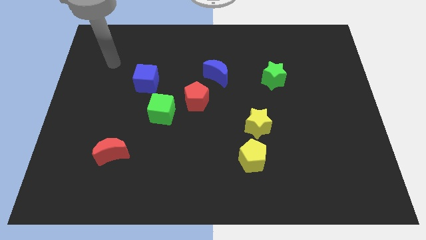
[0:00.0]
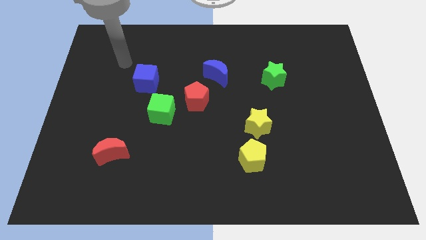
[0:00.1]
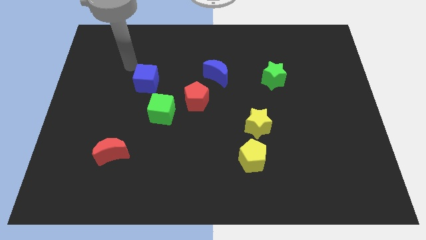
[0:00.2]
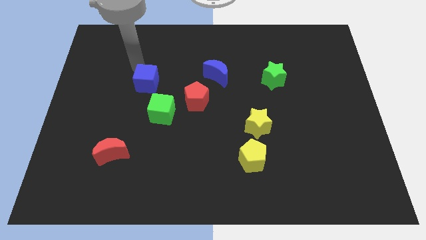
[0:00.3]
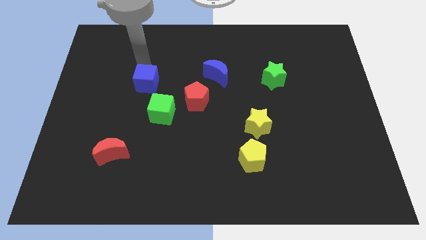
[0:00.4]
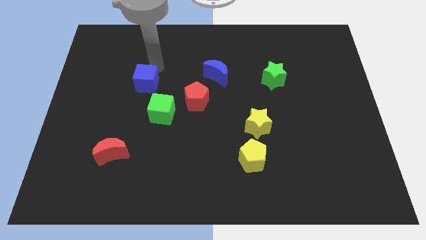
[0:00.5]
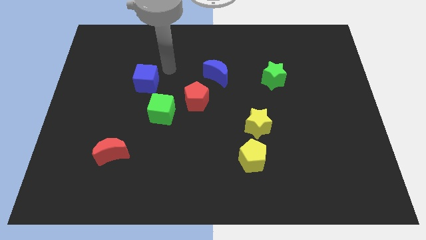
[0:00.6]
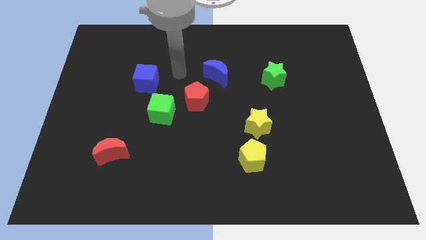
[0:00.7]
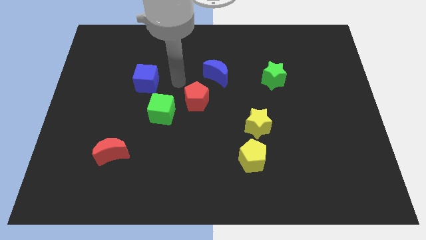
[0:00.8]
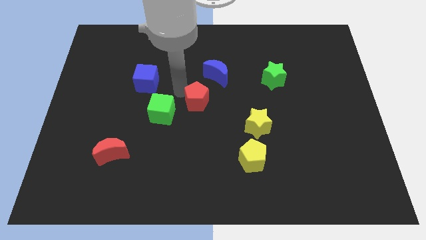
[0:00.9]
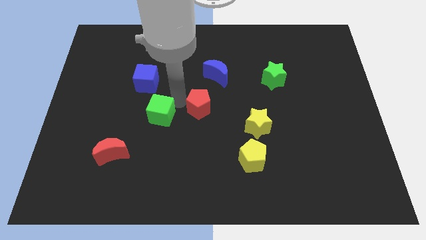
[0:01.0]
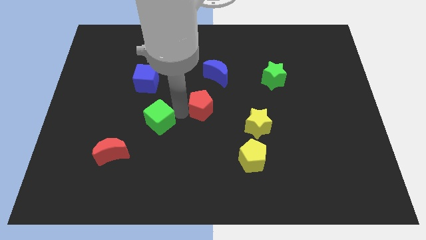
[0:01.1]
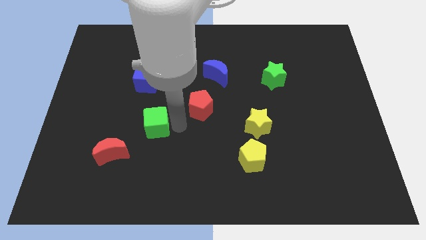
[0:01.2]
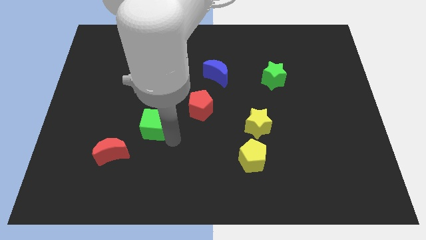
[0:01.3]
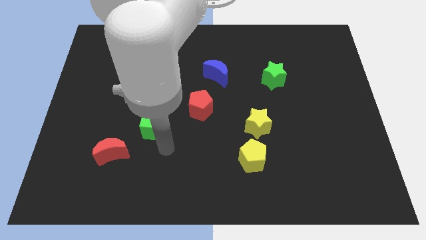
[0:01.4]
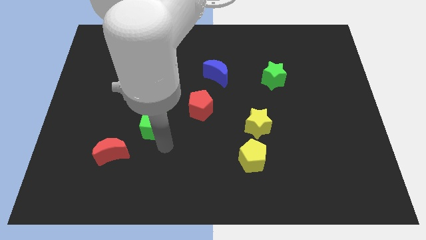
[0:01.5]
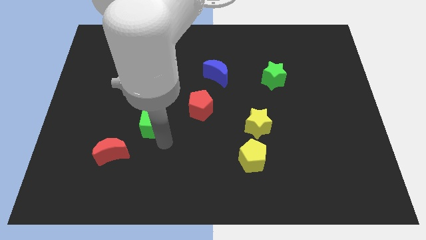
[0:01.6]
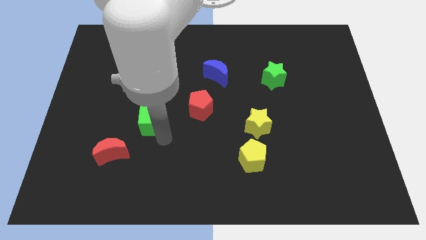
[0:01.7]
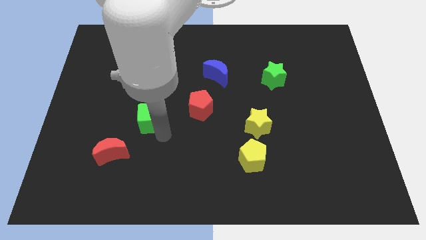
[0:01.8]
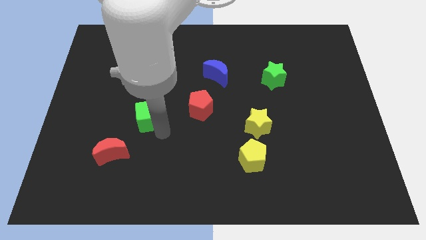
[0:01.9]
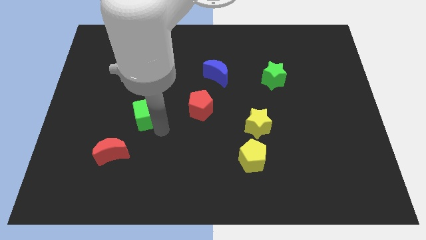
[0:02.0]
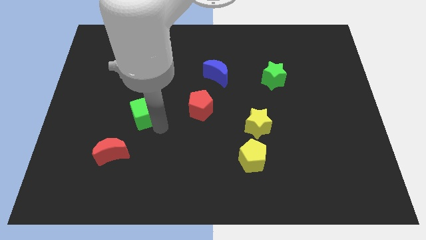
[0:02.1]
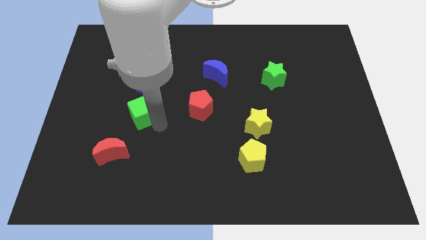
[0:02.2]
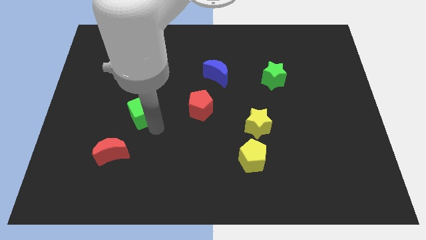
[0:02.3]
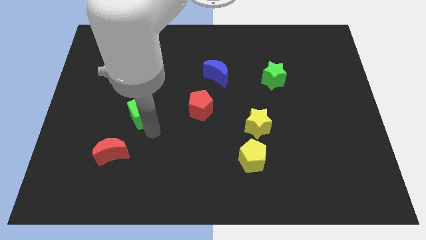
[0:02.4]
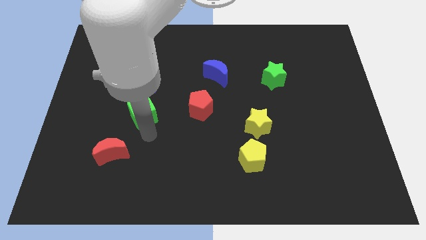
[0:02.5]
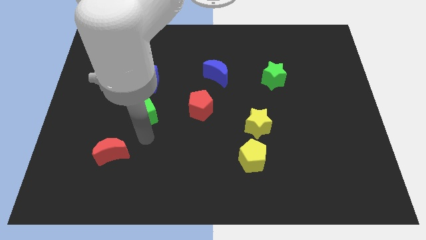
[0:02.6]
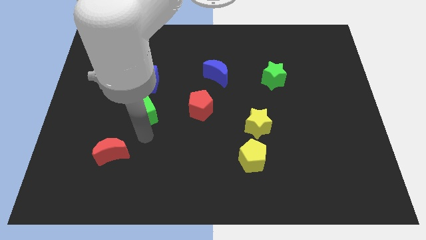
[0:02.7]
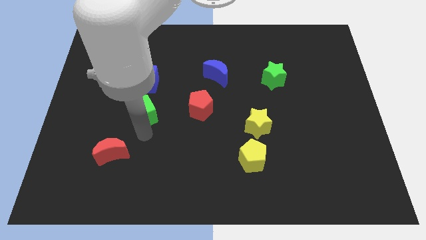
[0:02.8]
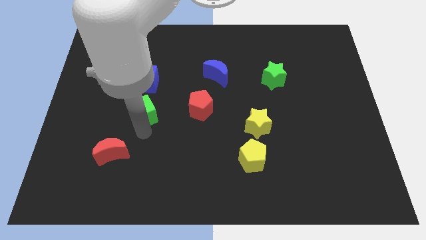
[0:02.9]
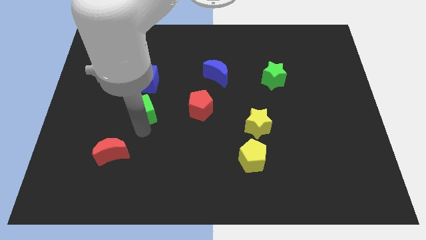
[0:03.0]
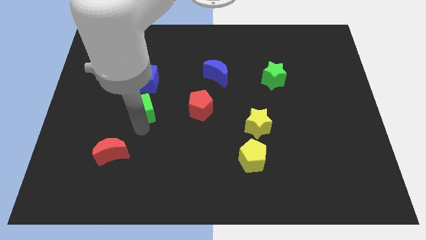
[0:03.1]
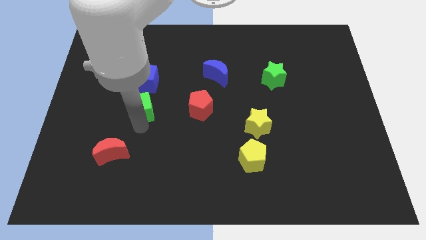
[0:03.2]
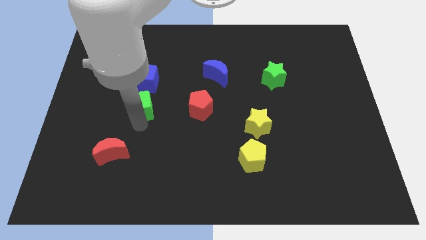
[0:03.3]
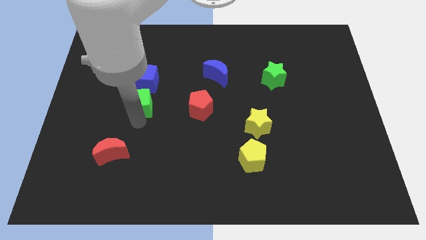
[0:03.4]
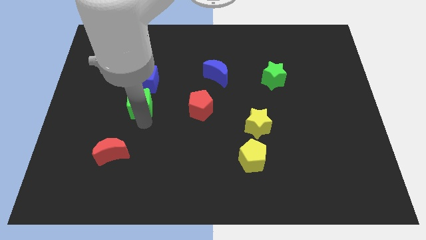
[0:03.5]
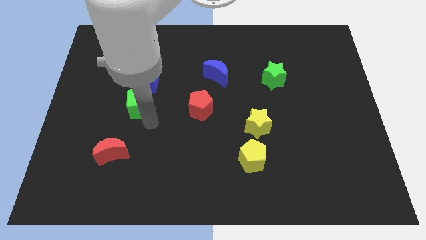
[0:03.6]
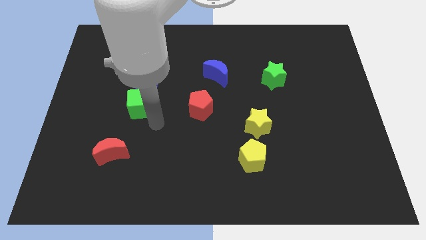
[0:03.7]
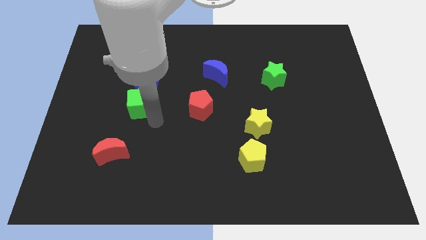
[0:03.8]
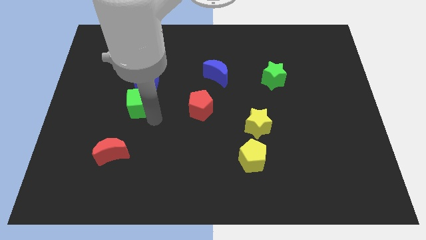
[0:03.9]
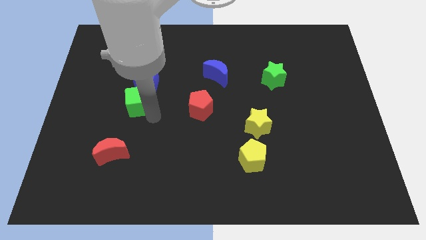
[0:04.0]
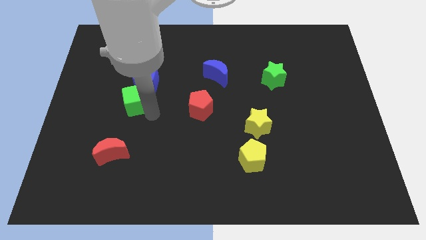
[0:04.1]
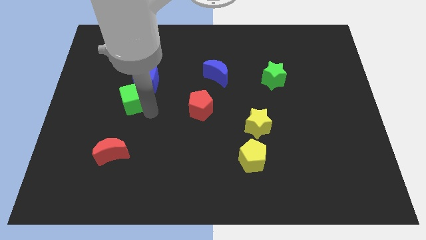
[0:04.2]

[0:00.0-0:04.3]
move the green cube up and to the left diagonally slightly

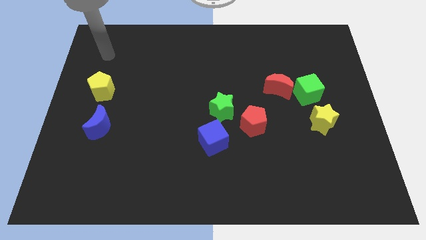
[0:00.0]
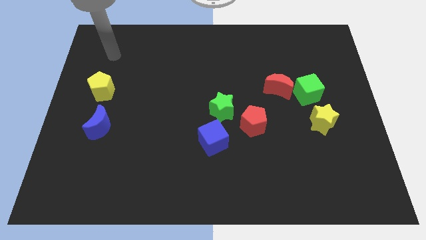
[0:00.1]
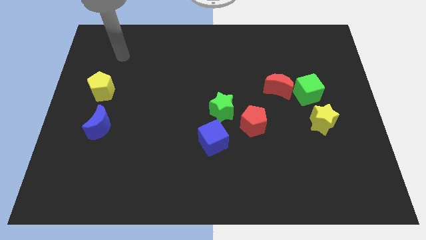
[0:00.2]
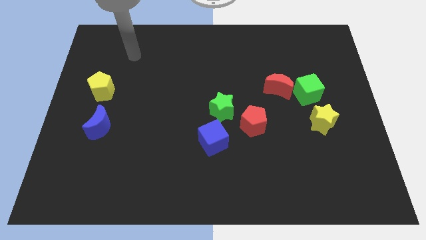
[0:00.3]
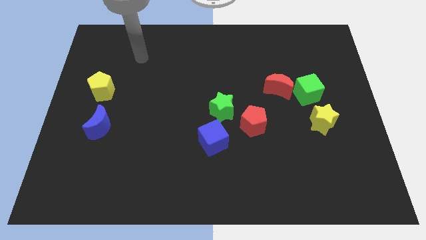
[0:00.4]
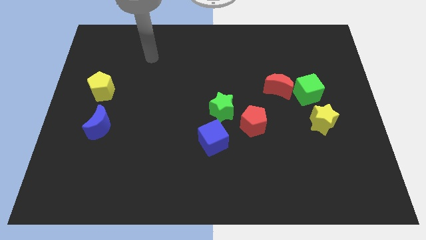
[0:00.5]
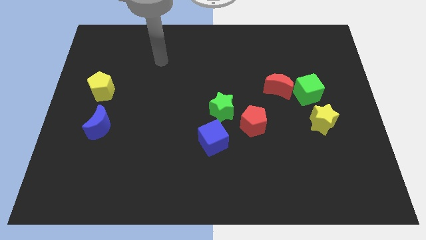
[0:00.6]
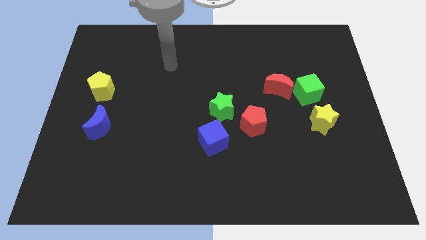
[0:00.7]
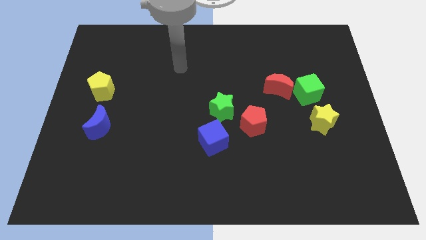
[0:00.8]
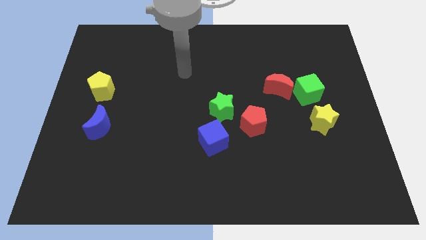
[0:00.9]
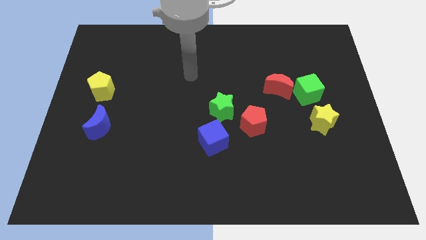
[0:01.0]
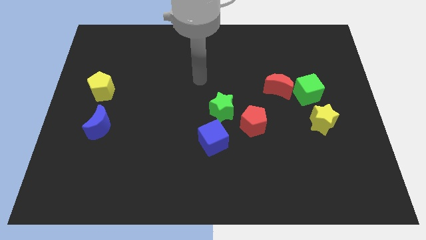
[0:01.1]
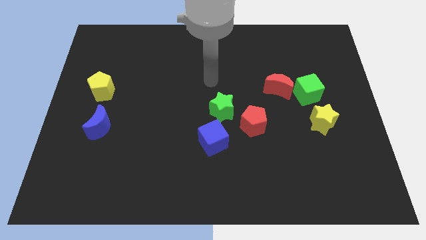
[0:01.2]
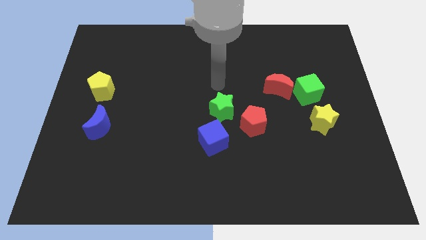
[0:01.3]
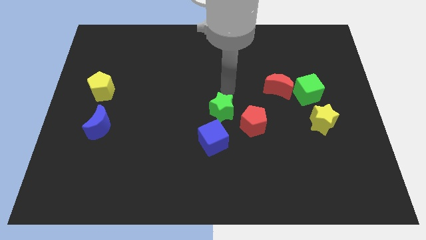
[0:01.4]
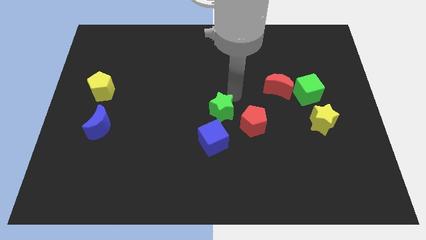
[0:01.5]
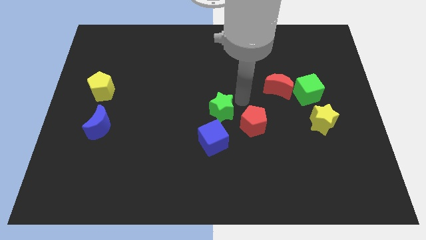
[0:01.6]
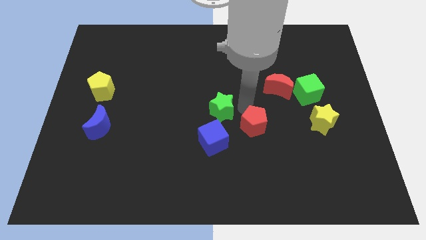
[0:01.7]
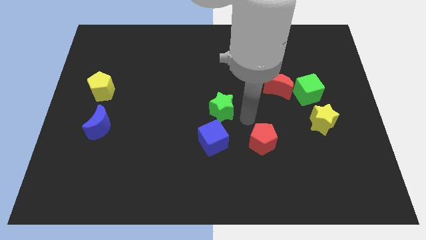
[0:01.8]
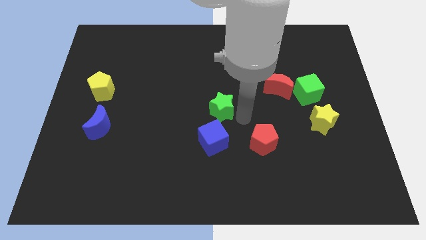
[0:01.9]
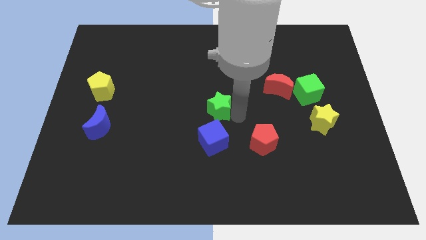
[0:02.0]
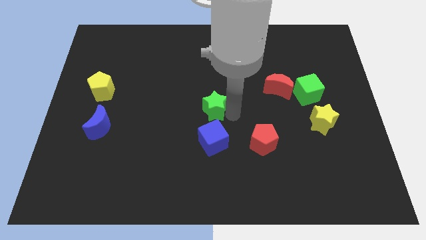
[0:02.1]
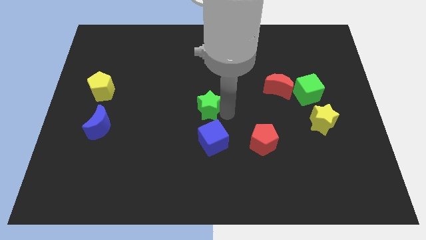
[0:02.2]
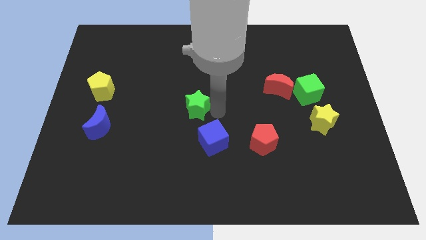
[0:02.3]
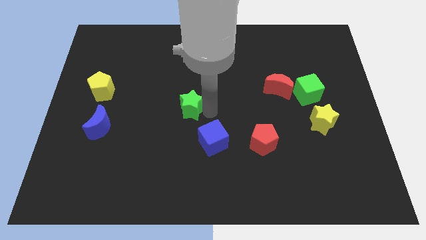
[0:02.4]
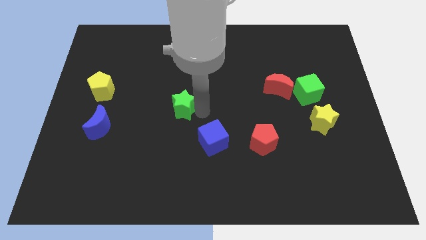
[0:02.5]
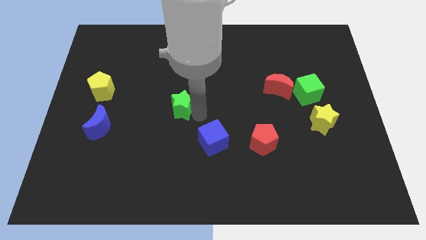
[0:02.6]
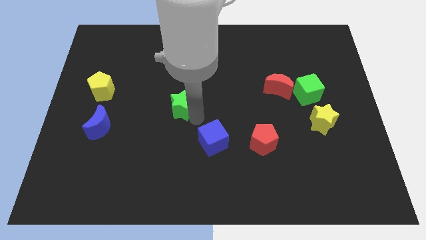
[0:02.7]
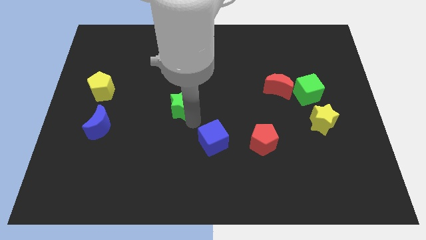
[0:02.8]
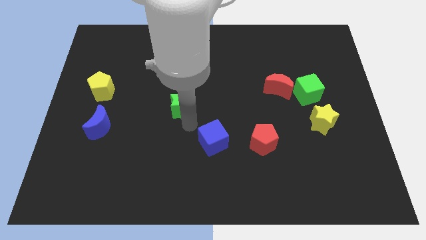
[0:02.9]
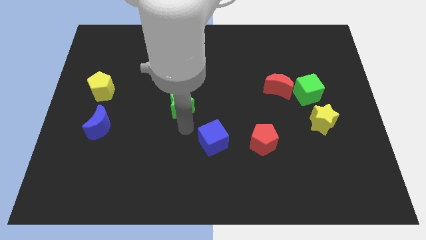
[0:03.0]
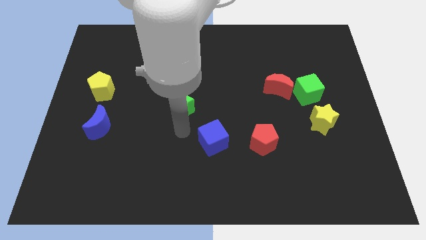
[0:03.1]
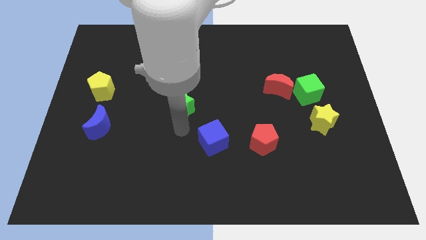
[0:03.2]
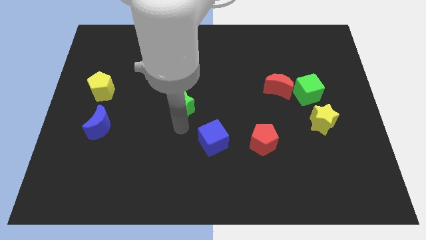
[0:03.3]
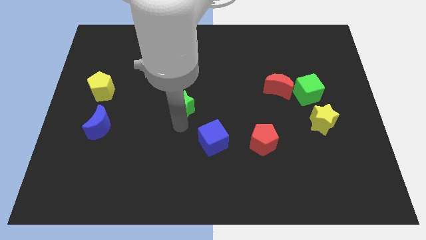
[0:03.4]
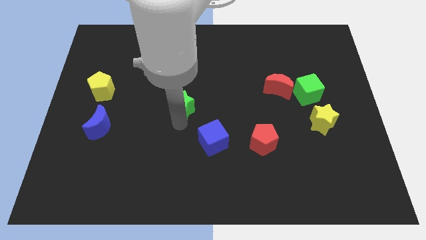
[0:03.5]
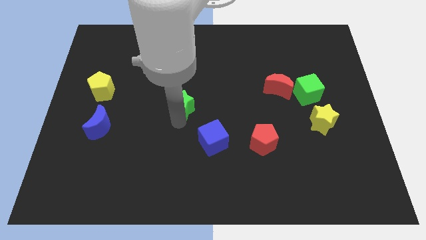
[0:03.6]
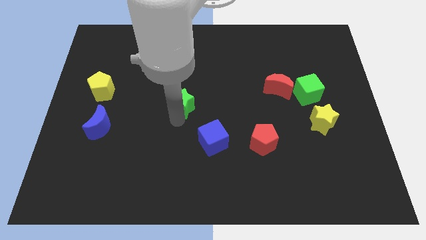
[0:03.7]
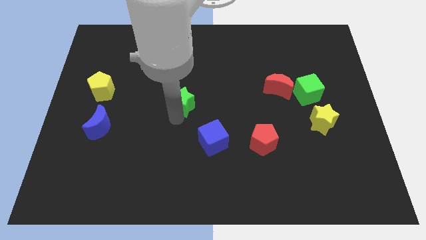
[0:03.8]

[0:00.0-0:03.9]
slide the green star diagonally upwards and to the left a little bit

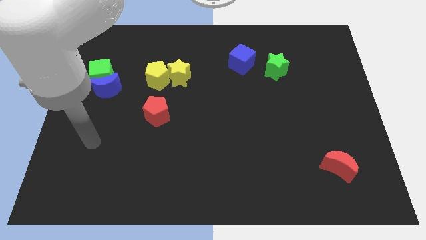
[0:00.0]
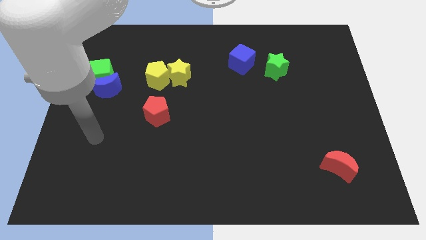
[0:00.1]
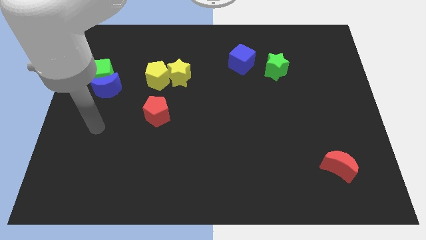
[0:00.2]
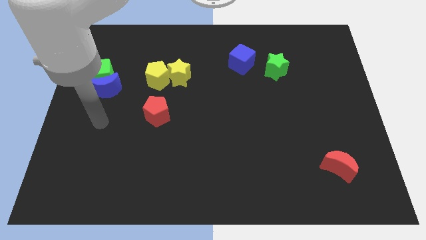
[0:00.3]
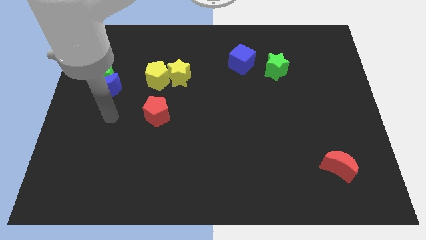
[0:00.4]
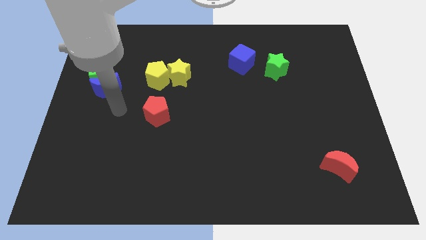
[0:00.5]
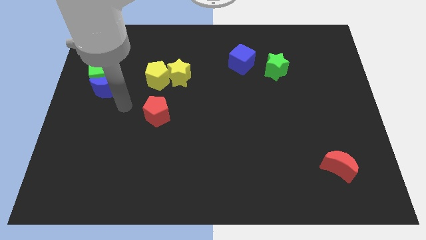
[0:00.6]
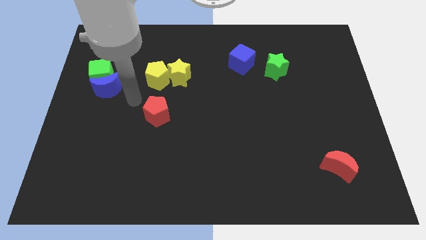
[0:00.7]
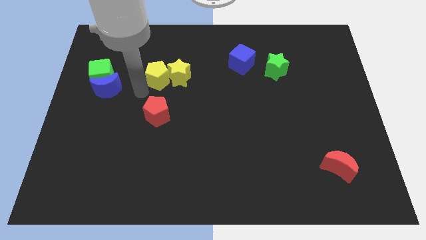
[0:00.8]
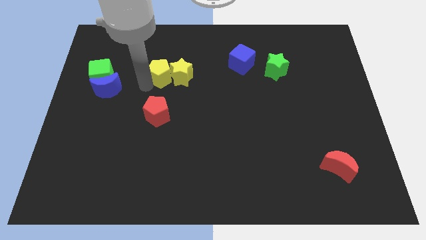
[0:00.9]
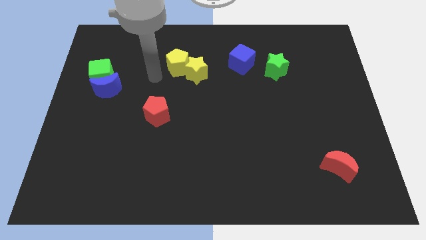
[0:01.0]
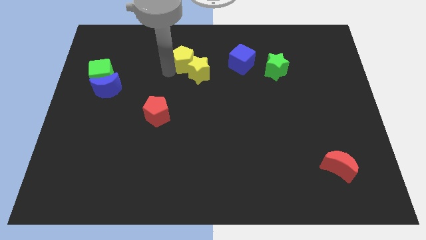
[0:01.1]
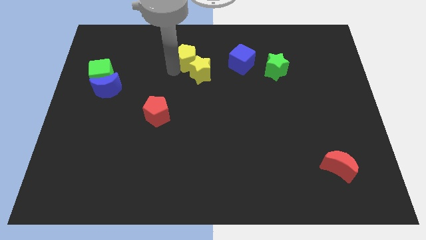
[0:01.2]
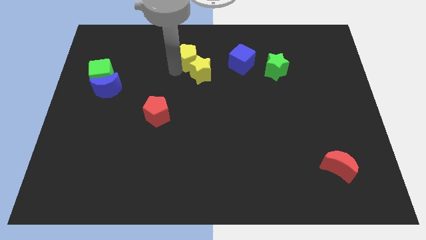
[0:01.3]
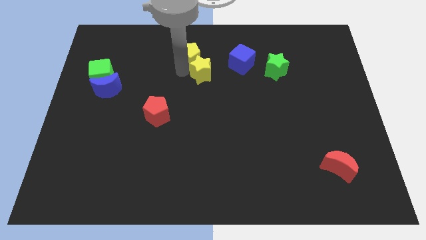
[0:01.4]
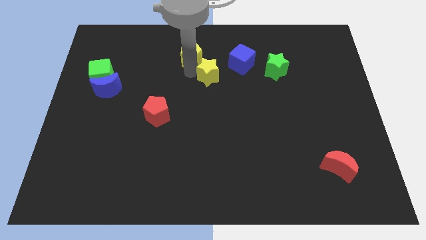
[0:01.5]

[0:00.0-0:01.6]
slide the yellow star to the right slightly
